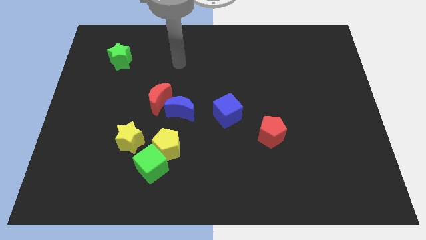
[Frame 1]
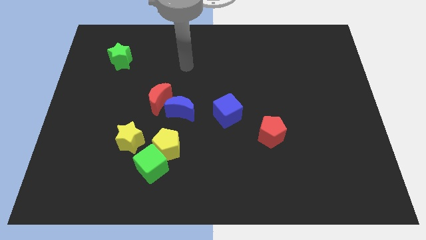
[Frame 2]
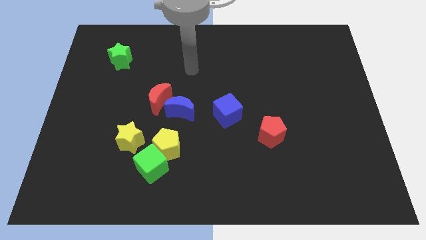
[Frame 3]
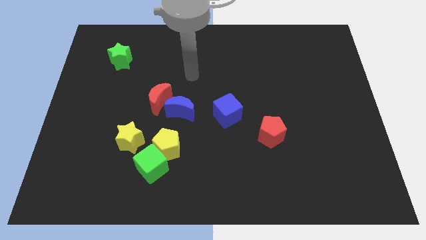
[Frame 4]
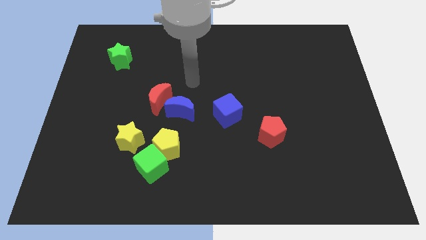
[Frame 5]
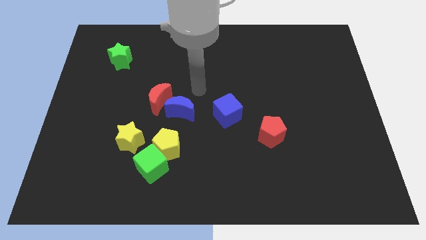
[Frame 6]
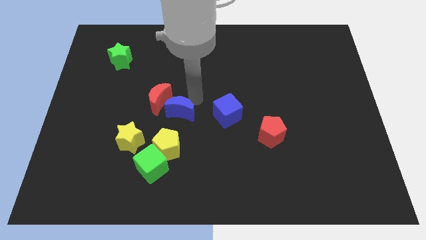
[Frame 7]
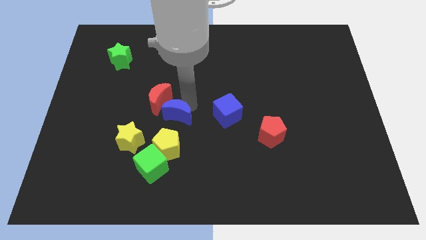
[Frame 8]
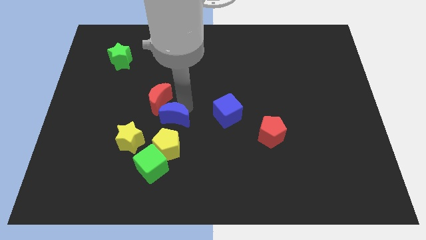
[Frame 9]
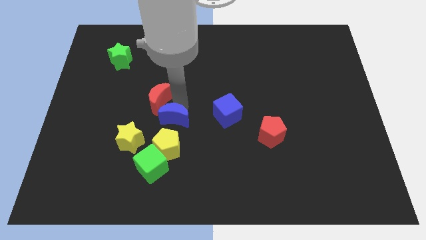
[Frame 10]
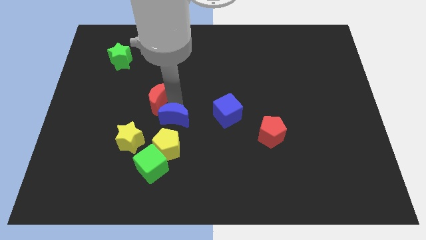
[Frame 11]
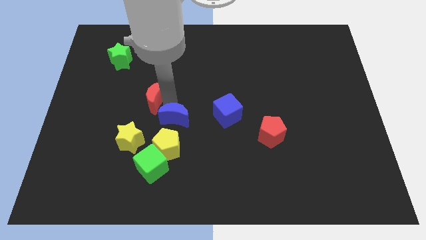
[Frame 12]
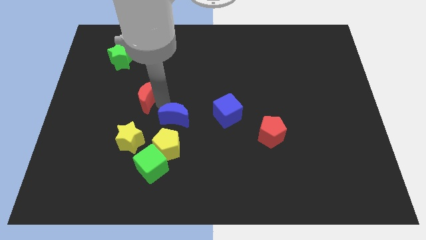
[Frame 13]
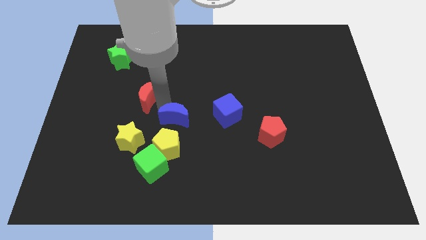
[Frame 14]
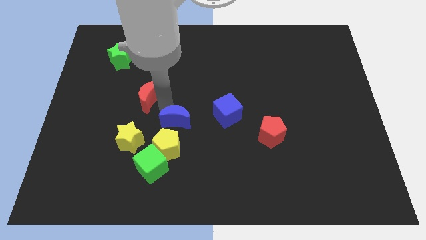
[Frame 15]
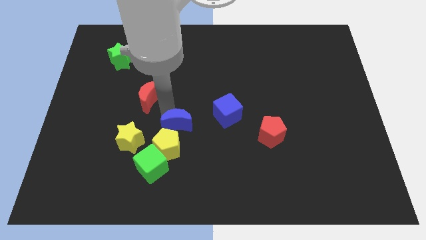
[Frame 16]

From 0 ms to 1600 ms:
pull the red moon apart from the blue moon

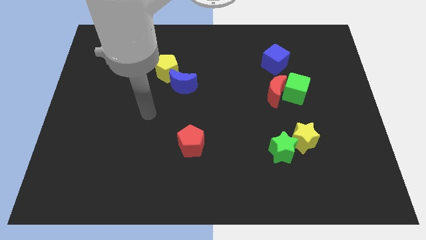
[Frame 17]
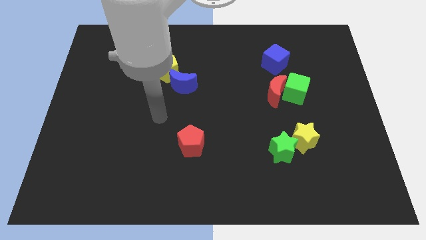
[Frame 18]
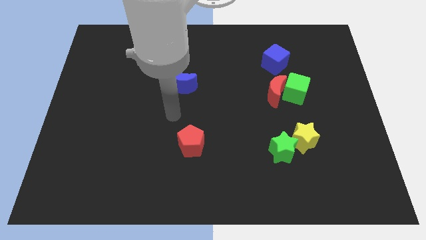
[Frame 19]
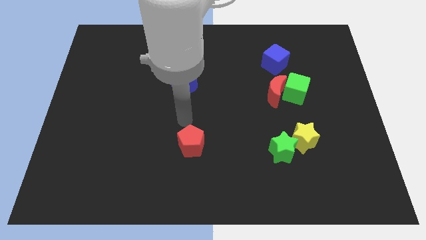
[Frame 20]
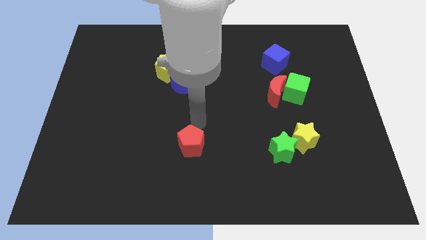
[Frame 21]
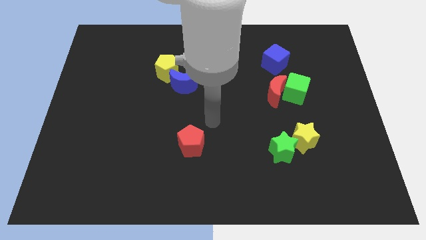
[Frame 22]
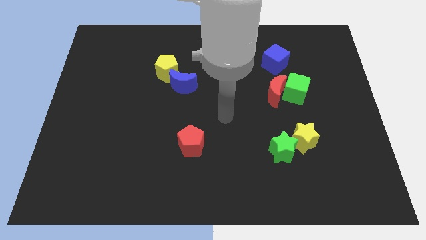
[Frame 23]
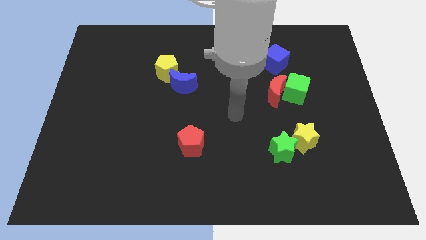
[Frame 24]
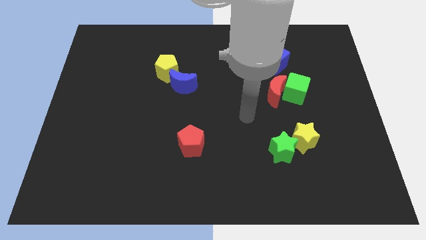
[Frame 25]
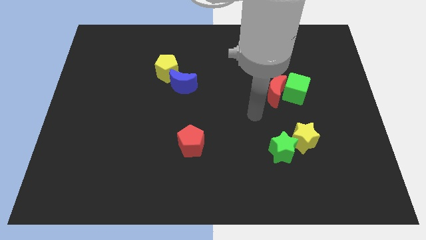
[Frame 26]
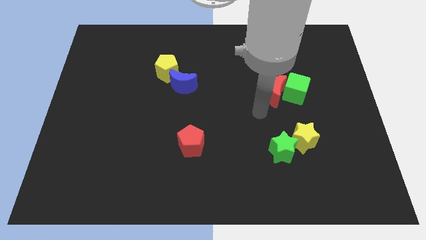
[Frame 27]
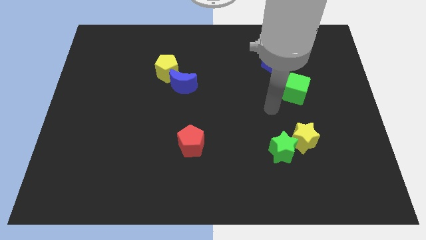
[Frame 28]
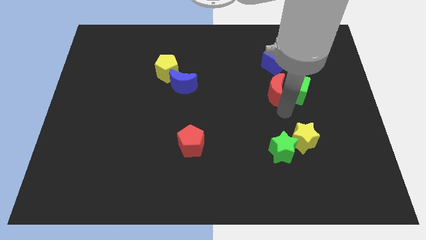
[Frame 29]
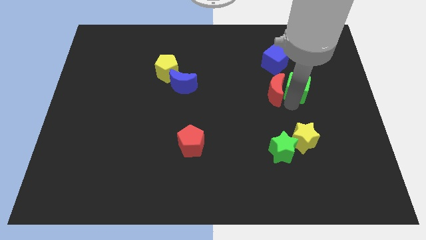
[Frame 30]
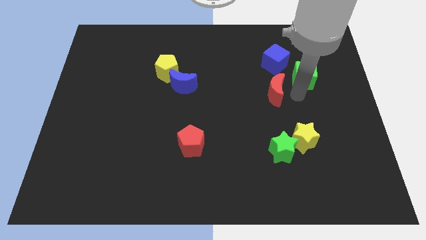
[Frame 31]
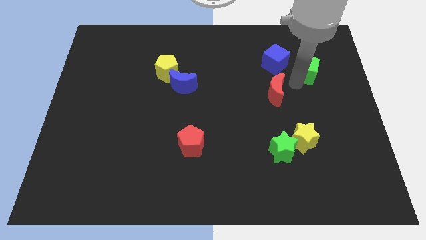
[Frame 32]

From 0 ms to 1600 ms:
pull the red moon apart from the green cube

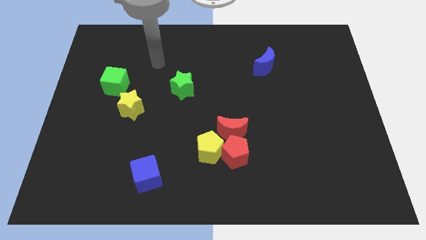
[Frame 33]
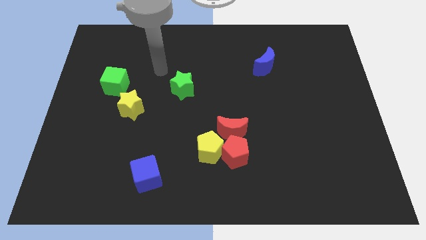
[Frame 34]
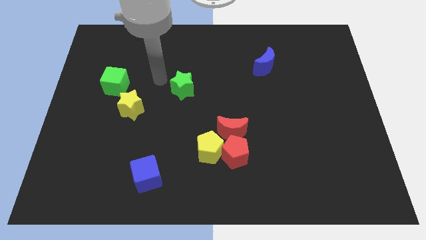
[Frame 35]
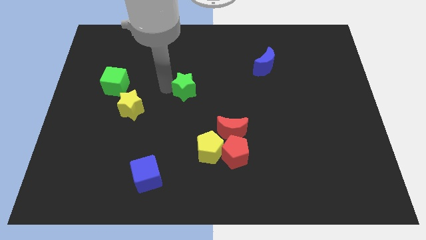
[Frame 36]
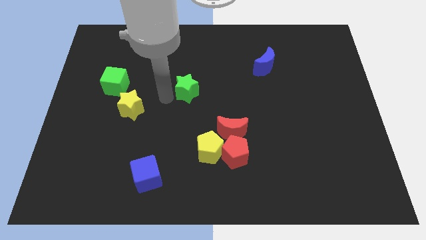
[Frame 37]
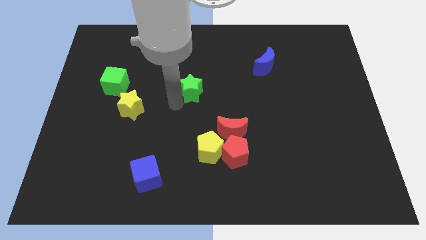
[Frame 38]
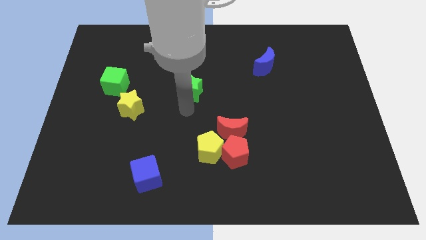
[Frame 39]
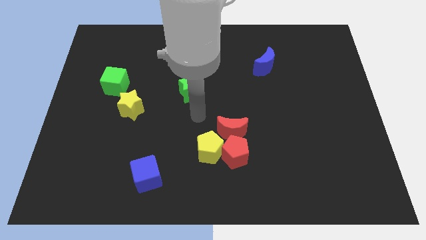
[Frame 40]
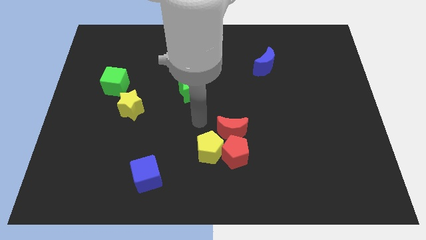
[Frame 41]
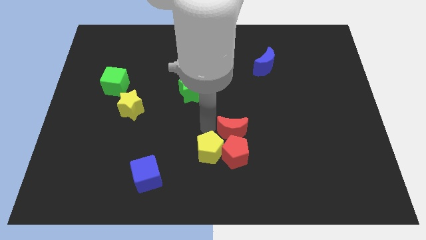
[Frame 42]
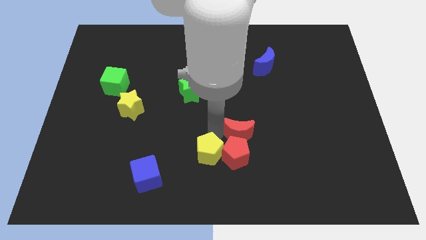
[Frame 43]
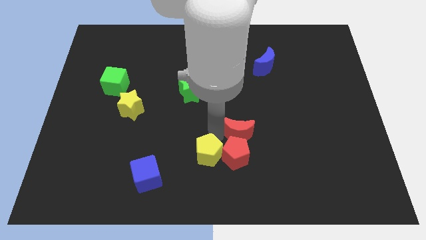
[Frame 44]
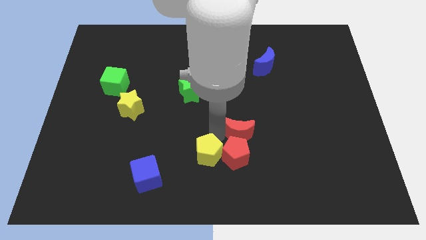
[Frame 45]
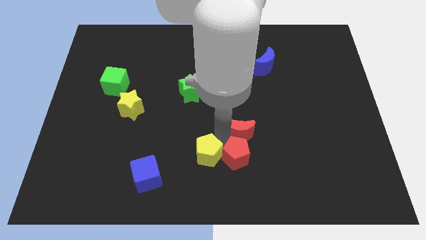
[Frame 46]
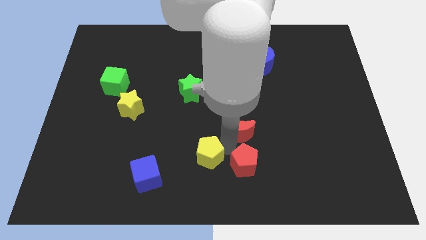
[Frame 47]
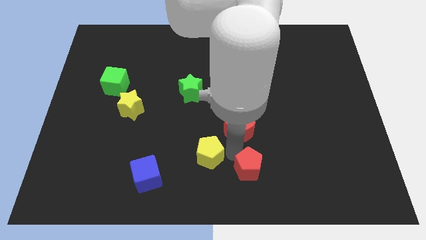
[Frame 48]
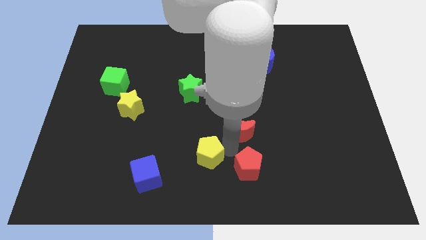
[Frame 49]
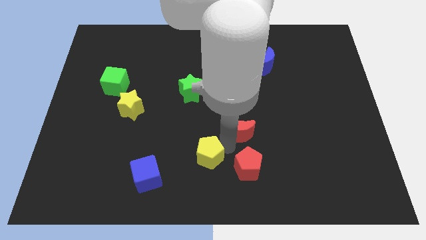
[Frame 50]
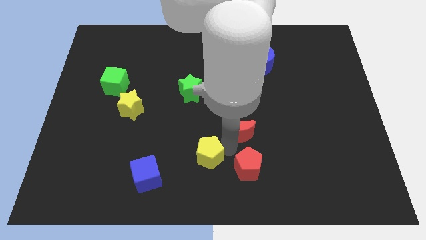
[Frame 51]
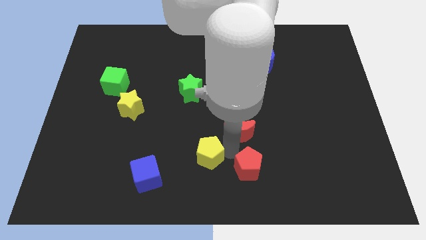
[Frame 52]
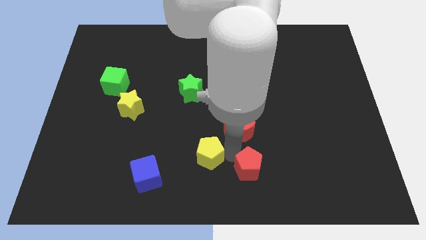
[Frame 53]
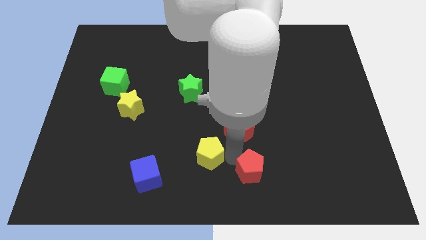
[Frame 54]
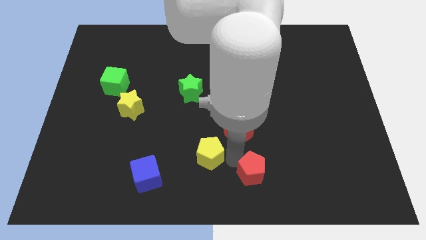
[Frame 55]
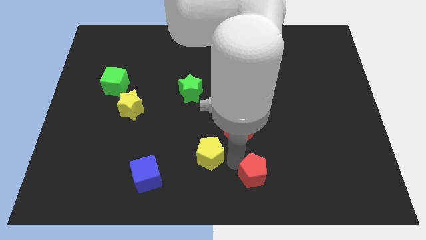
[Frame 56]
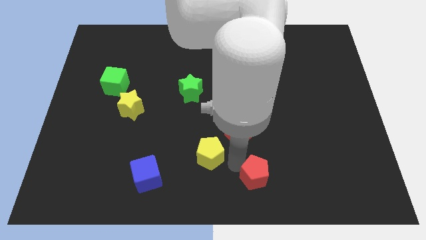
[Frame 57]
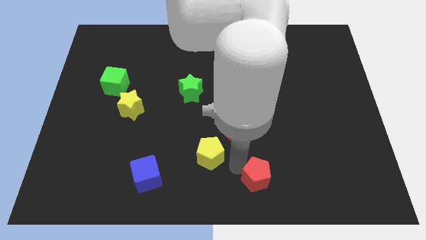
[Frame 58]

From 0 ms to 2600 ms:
separate the red pentagon from the yellow pentagon and red moon

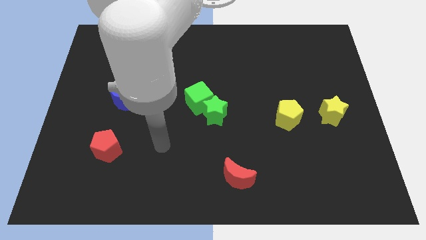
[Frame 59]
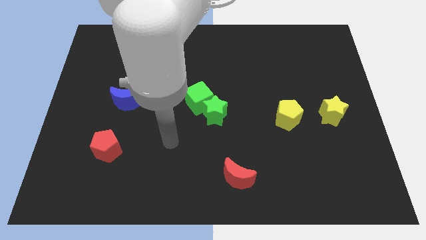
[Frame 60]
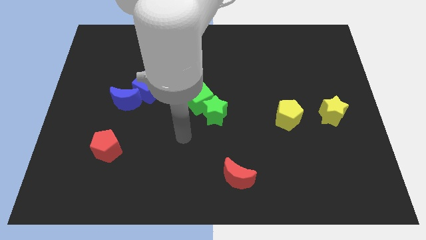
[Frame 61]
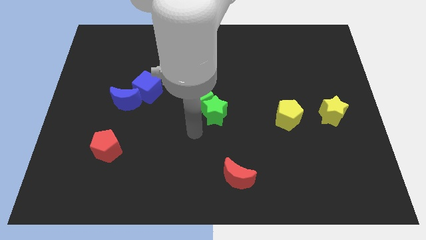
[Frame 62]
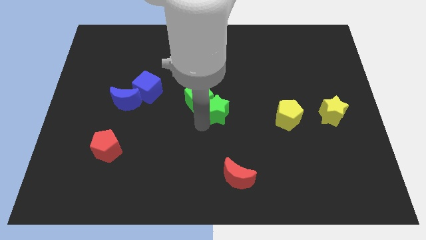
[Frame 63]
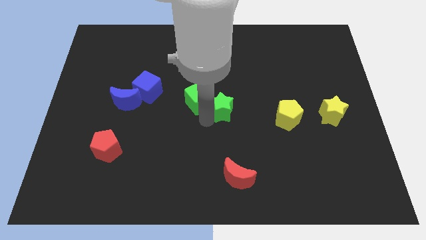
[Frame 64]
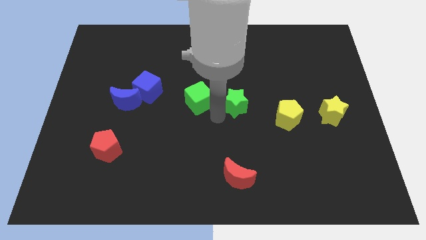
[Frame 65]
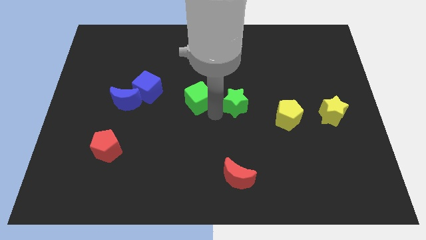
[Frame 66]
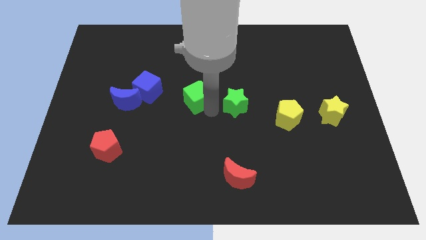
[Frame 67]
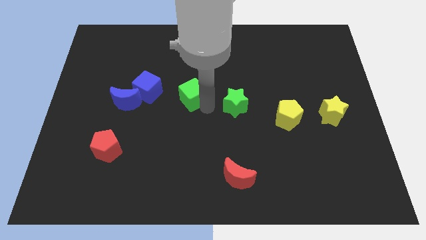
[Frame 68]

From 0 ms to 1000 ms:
move the green cube away from the green star

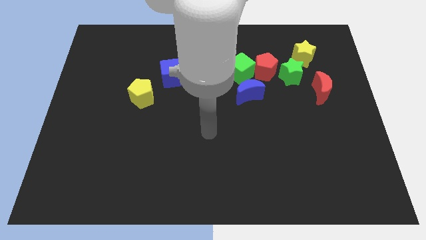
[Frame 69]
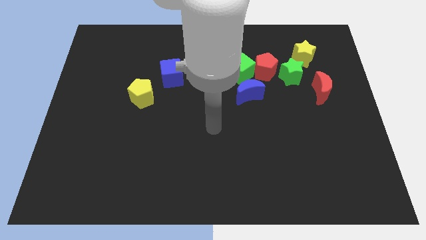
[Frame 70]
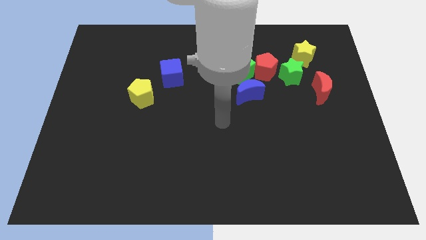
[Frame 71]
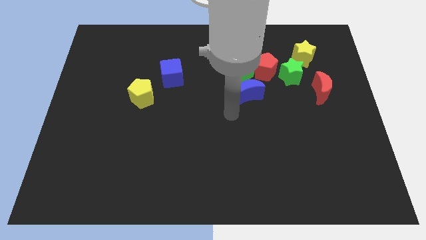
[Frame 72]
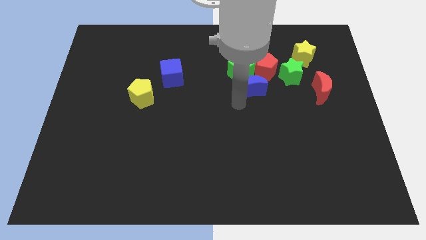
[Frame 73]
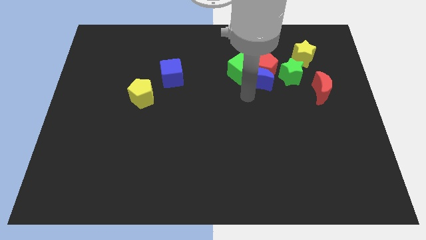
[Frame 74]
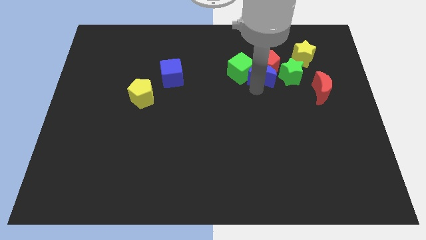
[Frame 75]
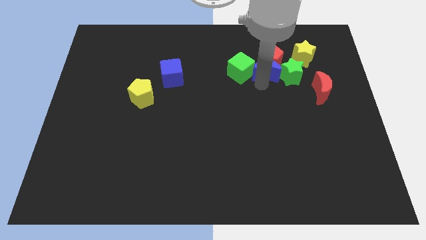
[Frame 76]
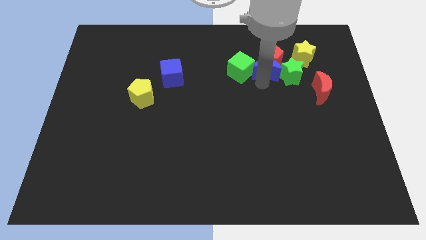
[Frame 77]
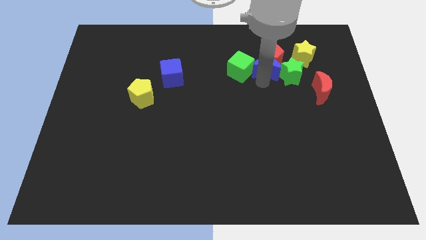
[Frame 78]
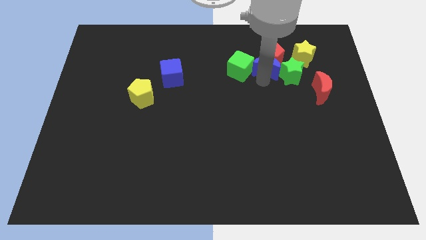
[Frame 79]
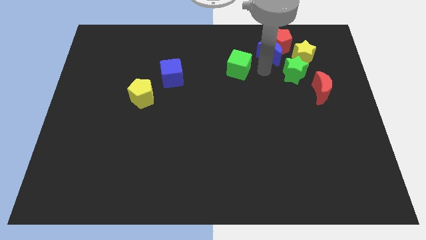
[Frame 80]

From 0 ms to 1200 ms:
move the green cube away from the red pentagon and blue moon

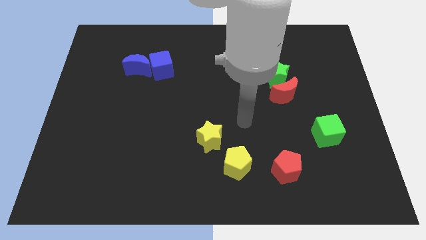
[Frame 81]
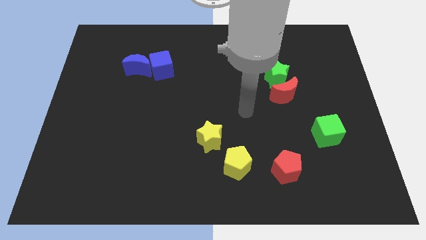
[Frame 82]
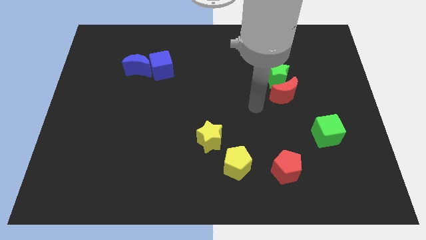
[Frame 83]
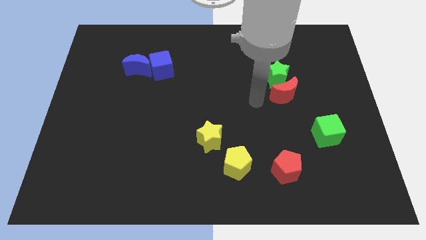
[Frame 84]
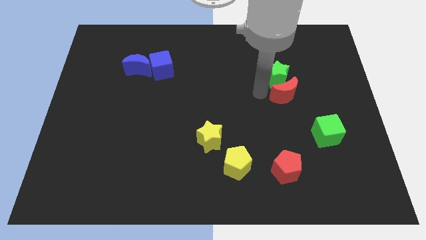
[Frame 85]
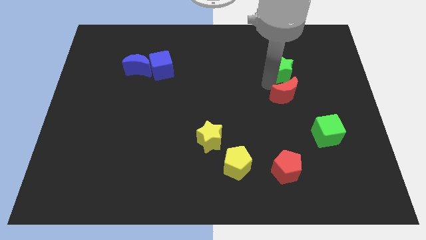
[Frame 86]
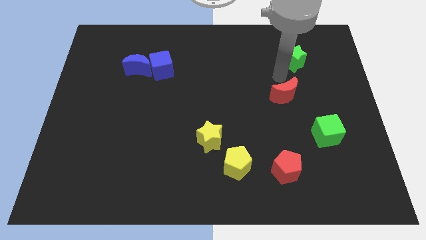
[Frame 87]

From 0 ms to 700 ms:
move the red moon away from the green star

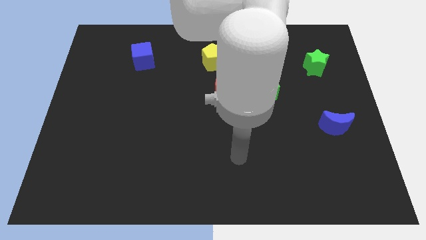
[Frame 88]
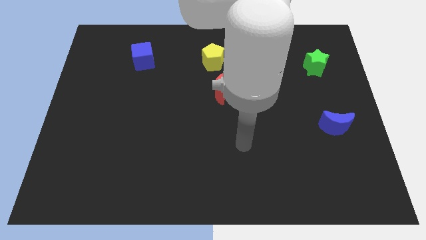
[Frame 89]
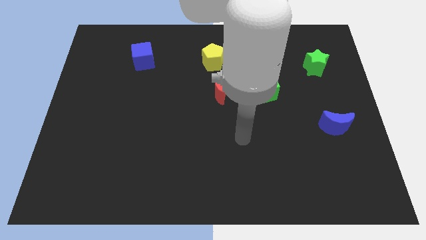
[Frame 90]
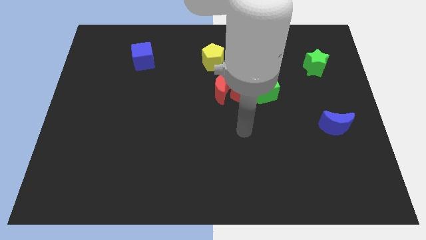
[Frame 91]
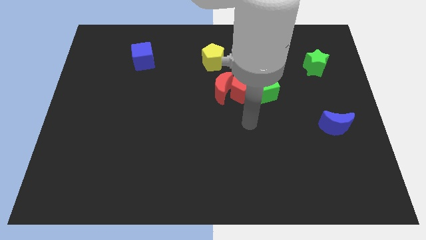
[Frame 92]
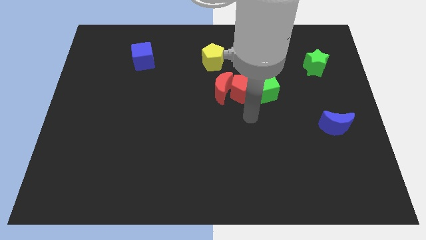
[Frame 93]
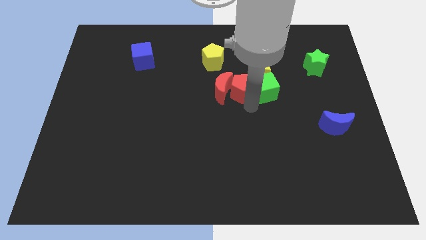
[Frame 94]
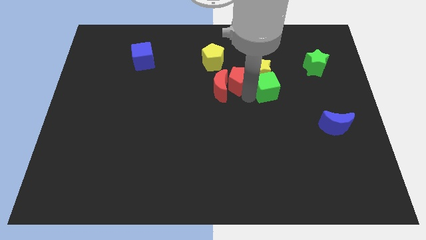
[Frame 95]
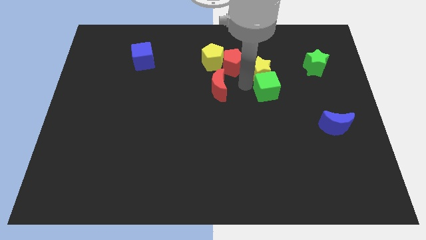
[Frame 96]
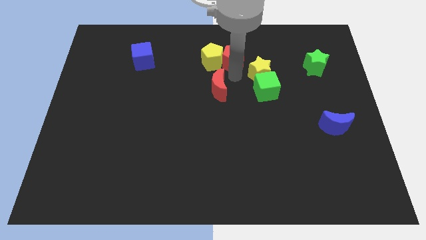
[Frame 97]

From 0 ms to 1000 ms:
move the red moon away from the red pentagon
